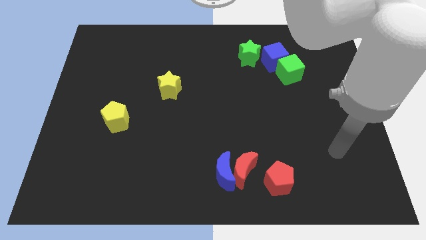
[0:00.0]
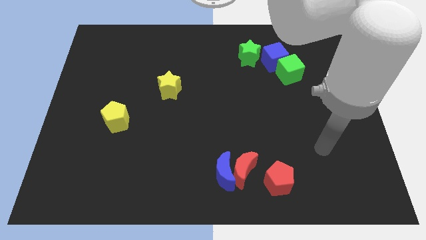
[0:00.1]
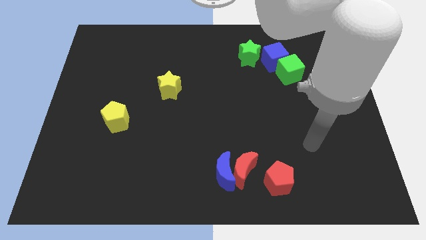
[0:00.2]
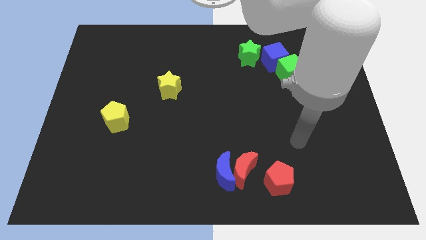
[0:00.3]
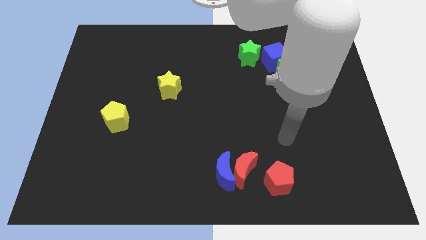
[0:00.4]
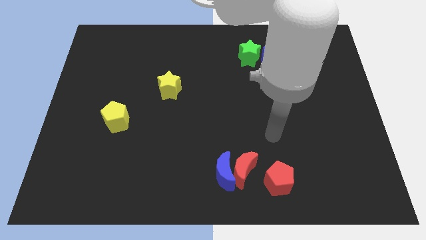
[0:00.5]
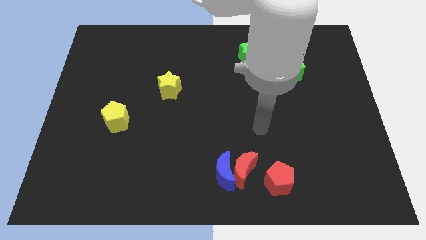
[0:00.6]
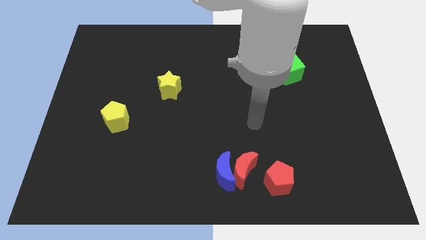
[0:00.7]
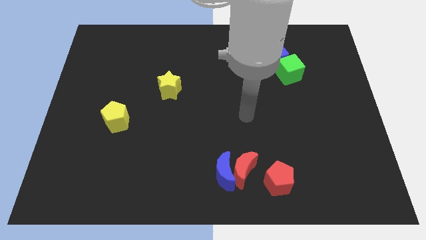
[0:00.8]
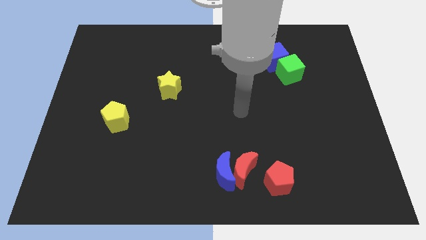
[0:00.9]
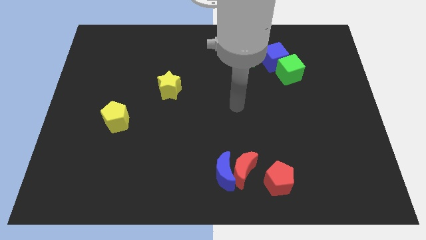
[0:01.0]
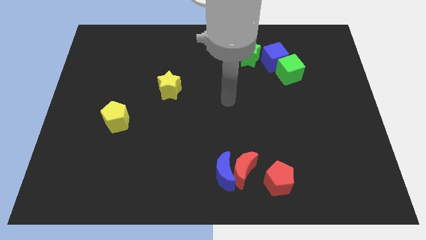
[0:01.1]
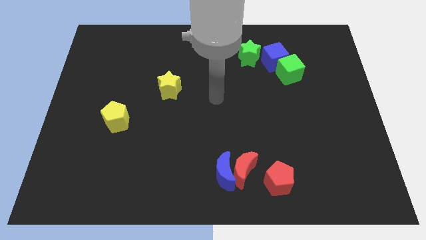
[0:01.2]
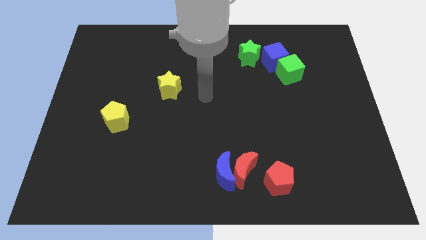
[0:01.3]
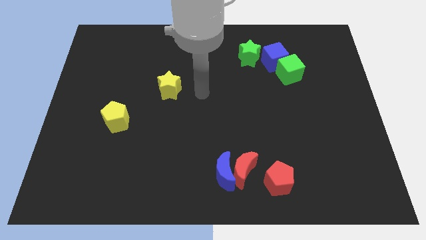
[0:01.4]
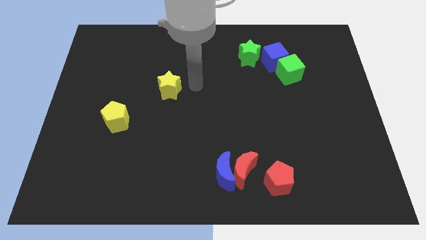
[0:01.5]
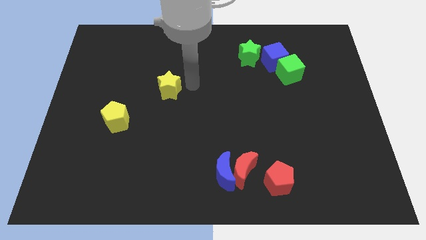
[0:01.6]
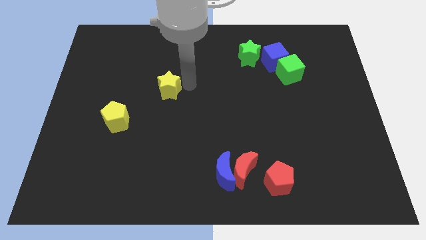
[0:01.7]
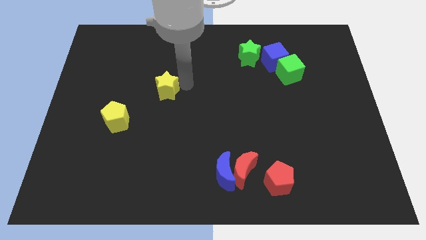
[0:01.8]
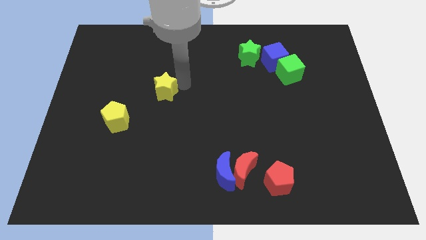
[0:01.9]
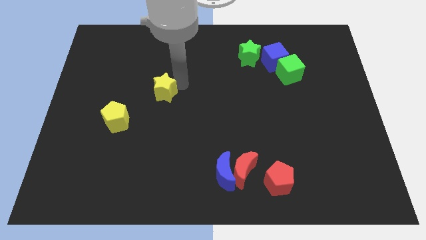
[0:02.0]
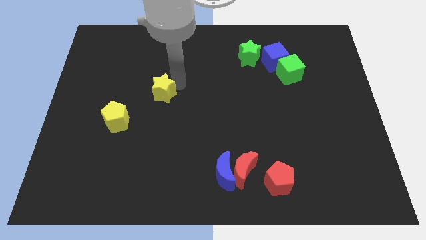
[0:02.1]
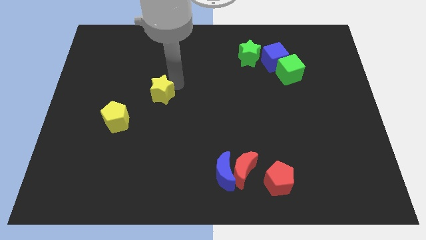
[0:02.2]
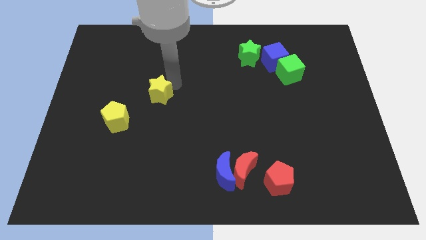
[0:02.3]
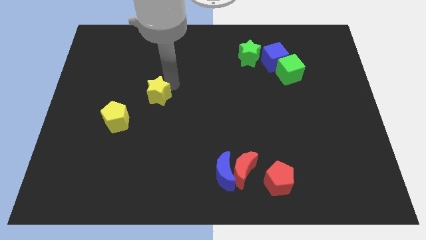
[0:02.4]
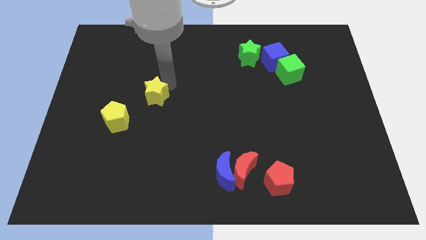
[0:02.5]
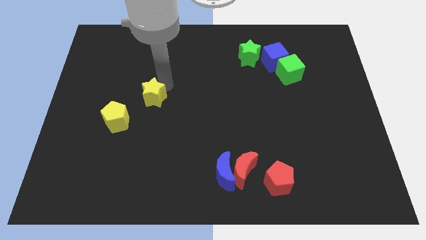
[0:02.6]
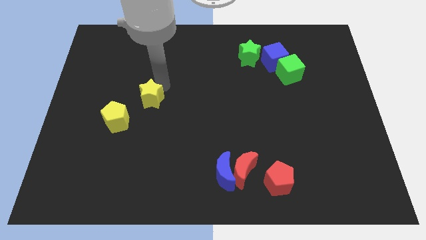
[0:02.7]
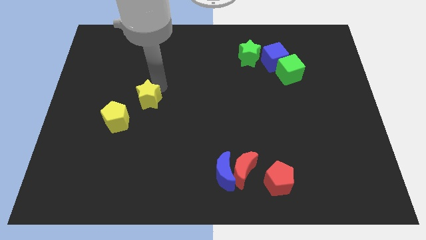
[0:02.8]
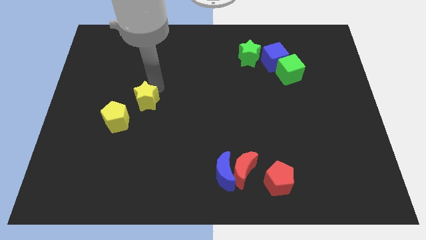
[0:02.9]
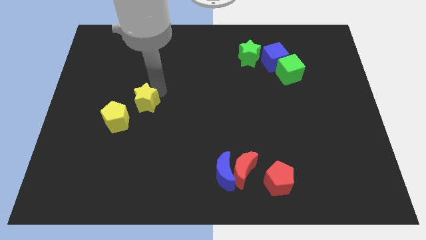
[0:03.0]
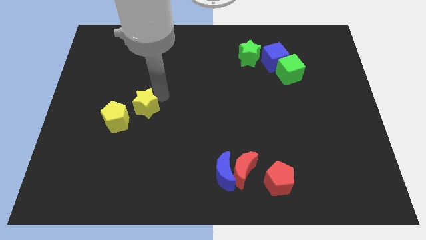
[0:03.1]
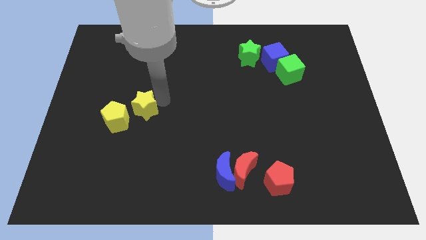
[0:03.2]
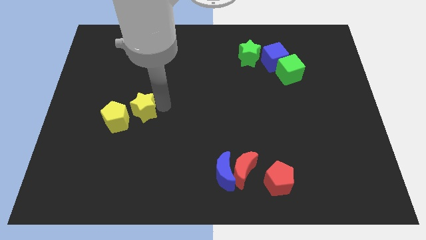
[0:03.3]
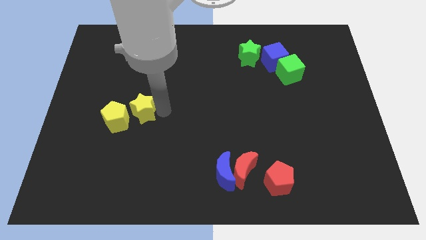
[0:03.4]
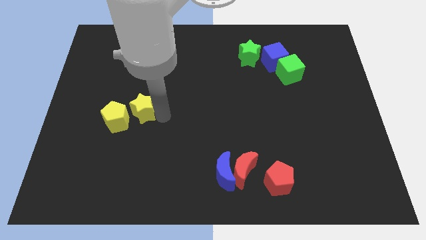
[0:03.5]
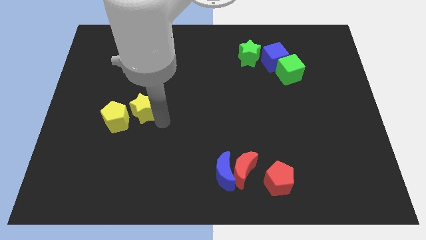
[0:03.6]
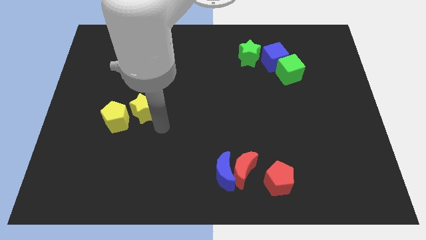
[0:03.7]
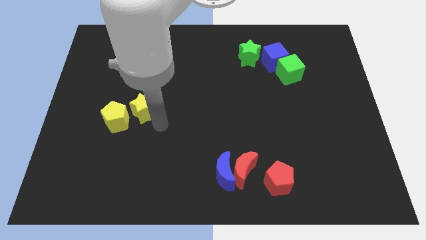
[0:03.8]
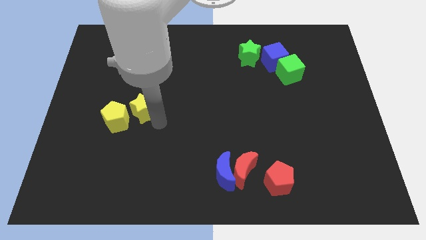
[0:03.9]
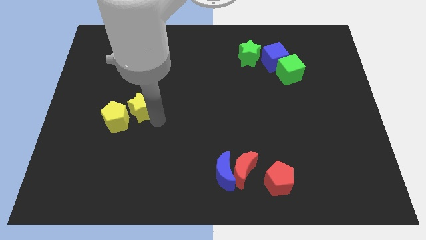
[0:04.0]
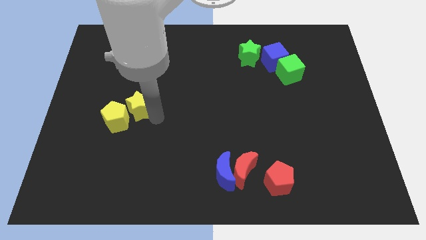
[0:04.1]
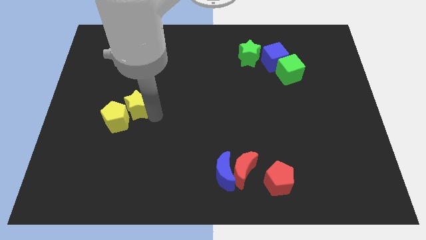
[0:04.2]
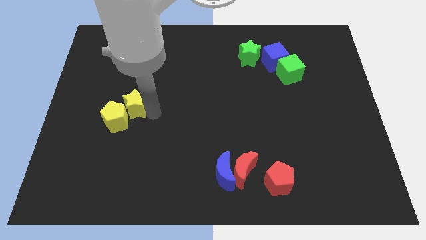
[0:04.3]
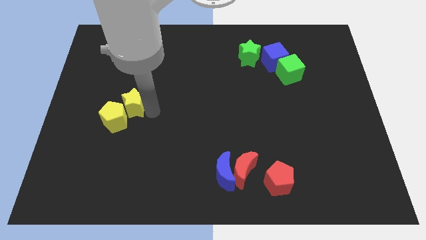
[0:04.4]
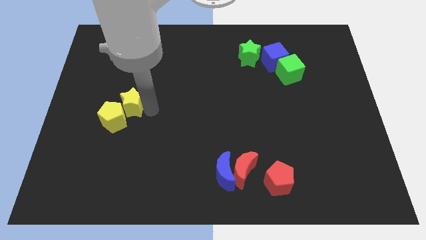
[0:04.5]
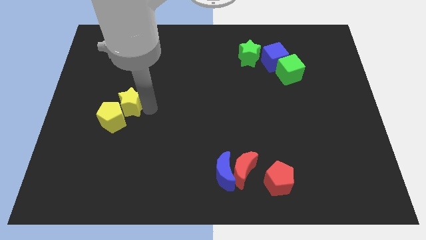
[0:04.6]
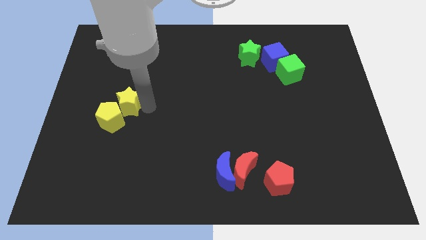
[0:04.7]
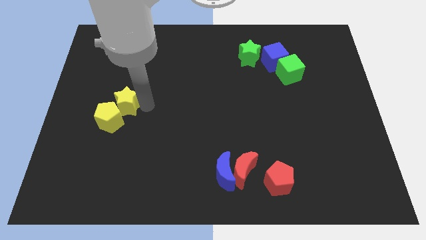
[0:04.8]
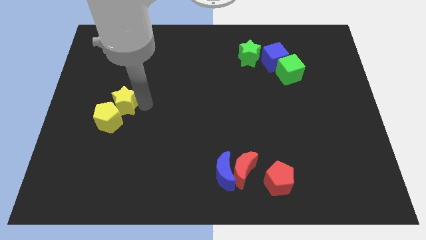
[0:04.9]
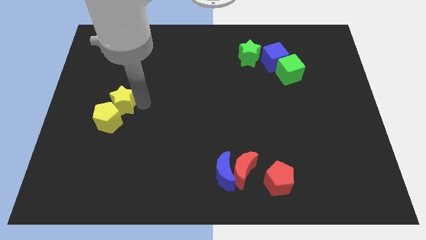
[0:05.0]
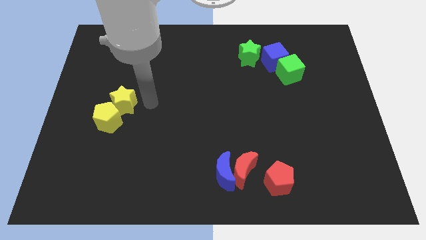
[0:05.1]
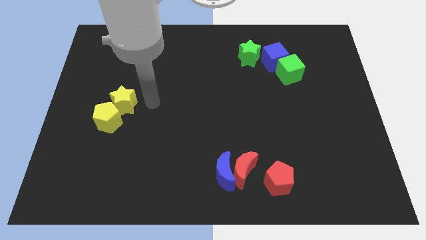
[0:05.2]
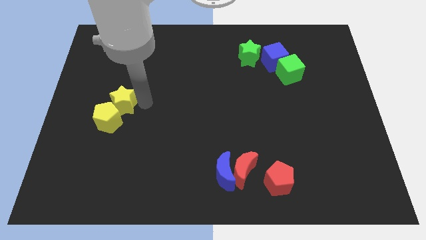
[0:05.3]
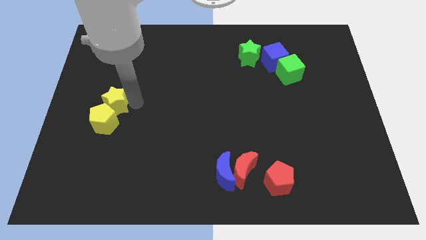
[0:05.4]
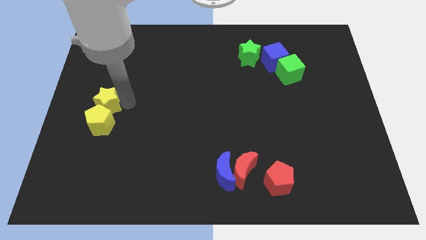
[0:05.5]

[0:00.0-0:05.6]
slide the yellow star diagonally up and to the left of the yellow pentagon

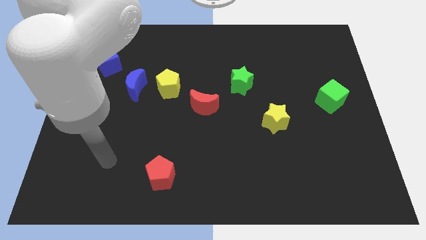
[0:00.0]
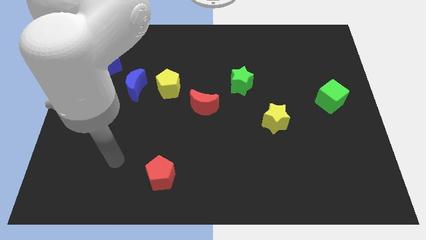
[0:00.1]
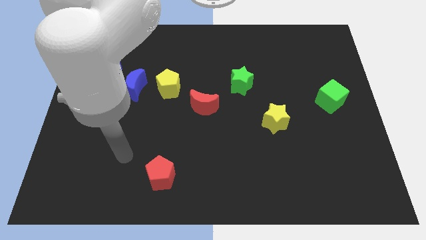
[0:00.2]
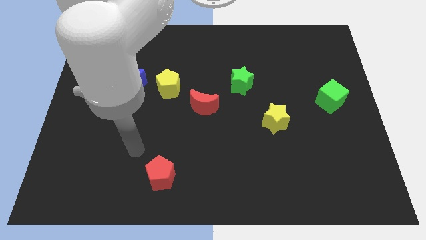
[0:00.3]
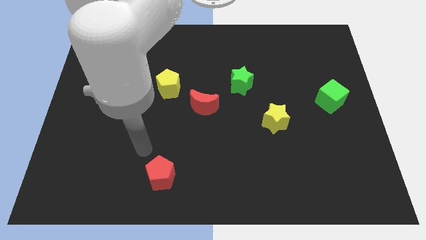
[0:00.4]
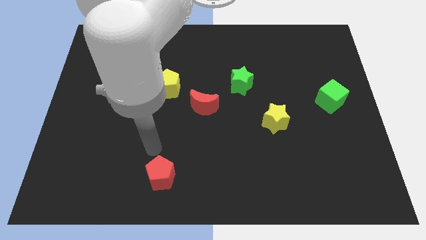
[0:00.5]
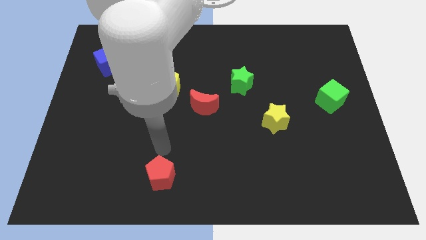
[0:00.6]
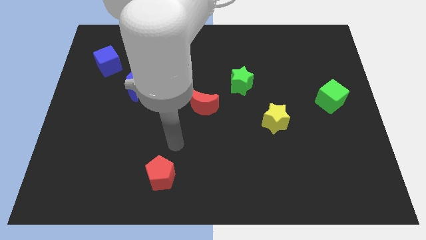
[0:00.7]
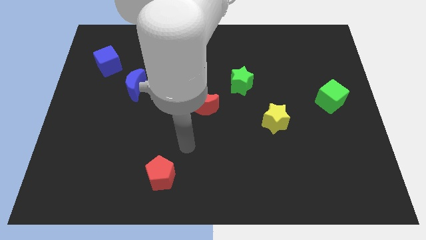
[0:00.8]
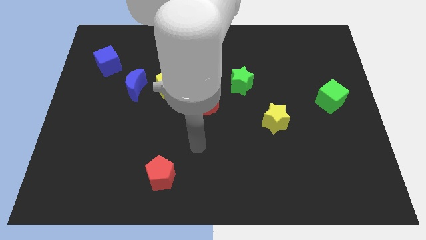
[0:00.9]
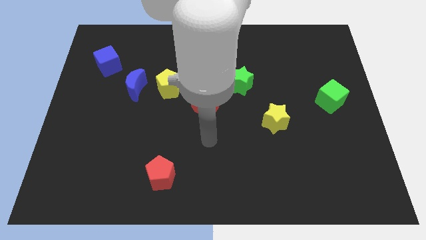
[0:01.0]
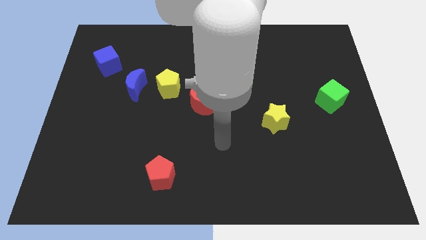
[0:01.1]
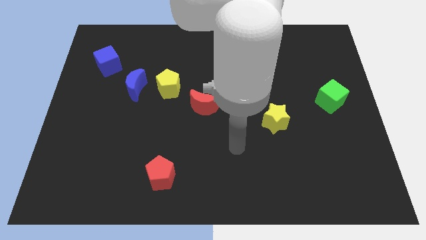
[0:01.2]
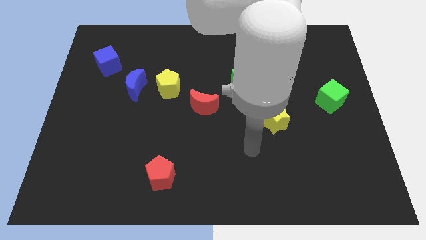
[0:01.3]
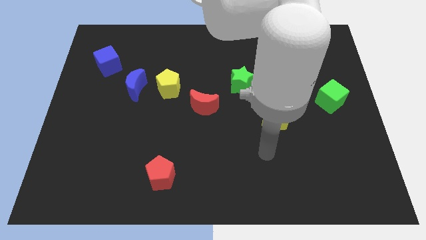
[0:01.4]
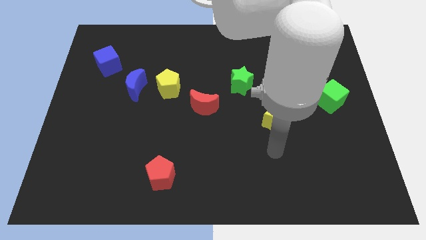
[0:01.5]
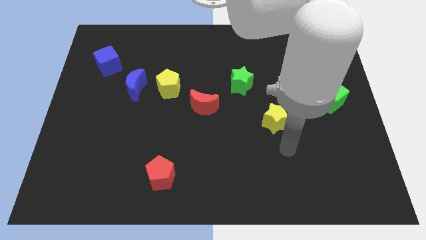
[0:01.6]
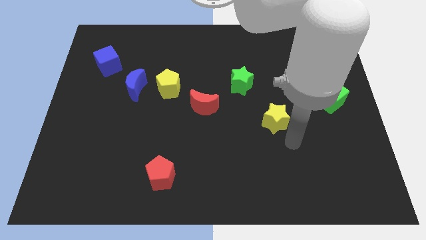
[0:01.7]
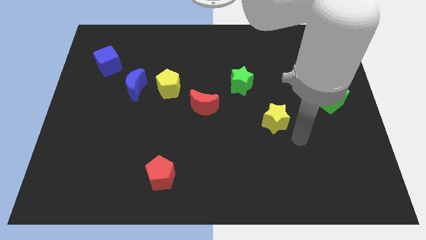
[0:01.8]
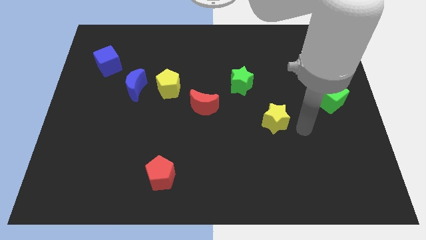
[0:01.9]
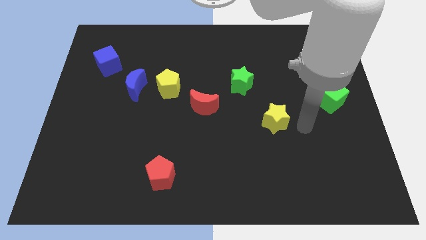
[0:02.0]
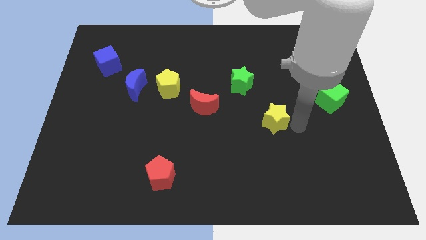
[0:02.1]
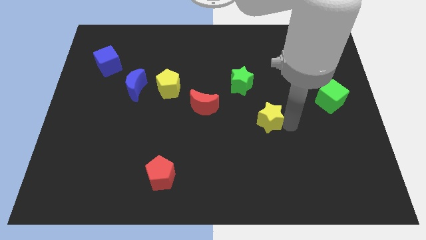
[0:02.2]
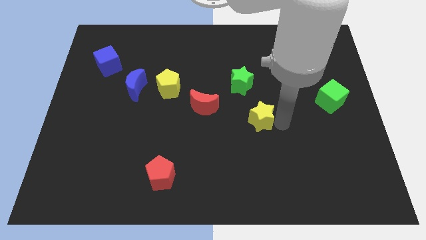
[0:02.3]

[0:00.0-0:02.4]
slide the yellow star below the green star
